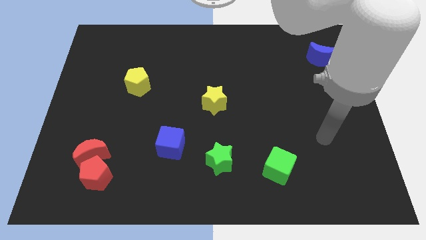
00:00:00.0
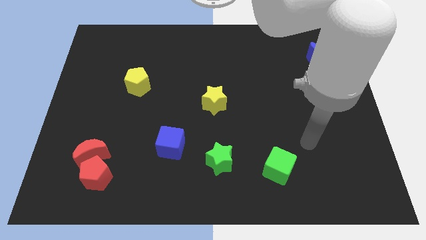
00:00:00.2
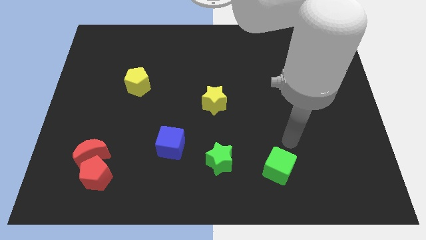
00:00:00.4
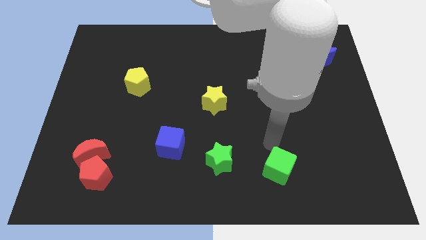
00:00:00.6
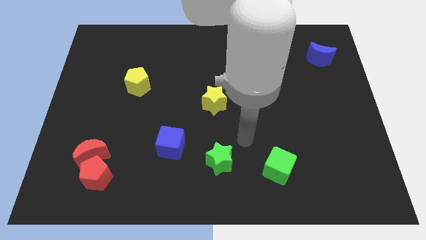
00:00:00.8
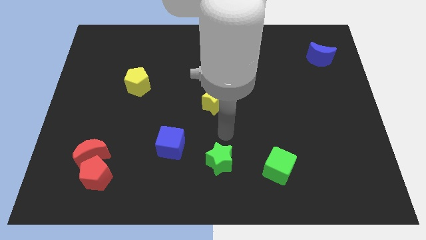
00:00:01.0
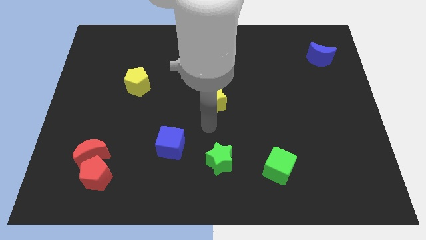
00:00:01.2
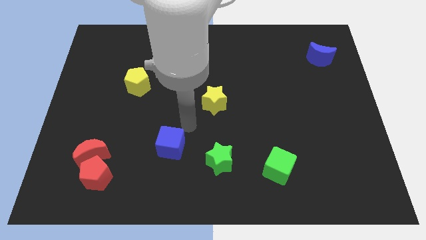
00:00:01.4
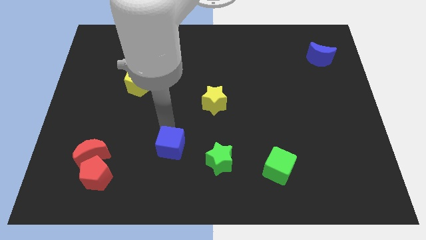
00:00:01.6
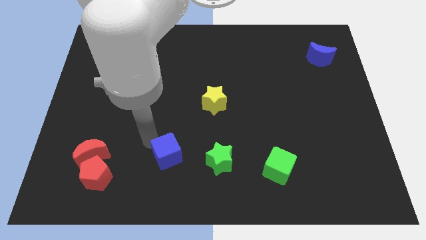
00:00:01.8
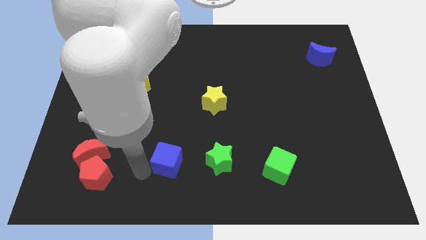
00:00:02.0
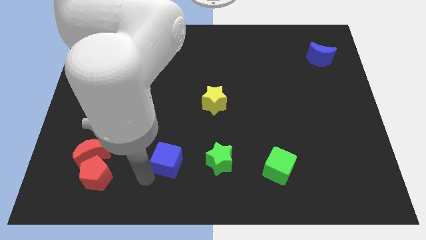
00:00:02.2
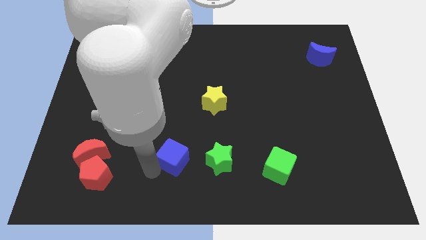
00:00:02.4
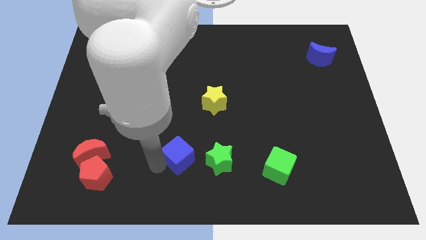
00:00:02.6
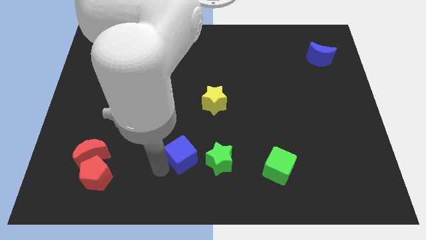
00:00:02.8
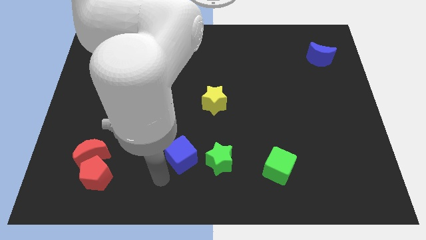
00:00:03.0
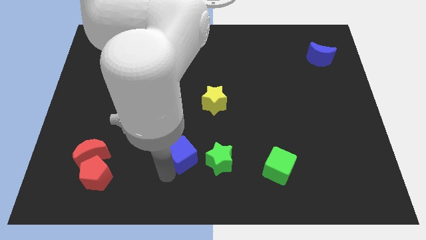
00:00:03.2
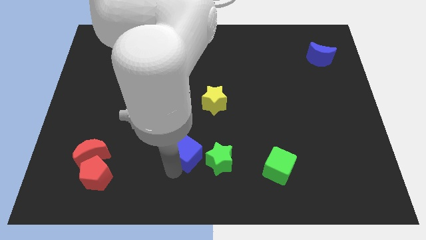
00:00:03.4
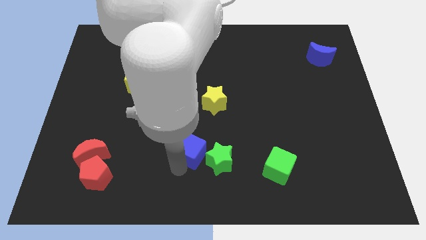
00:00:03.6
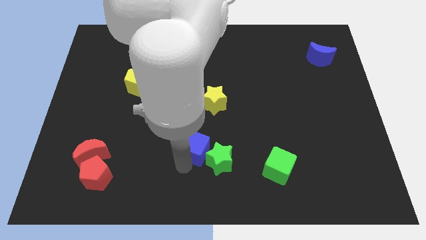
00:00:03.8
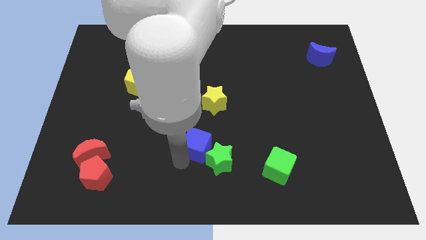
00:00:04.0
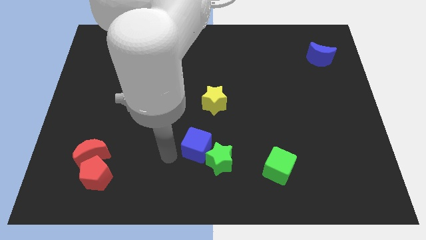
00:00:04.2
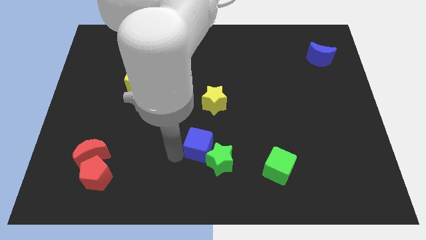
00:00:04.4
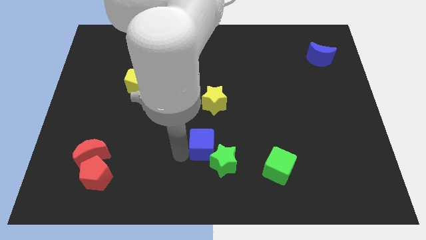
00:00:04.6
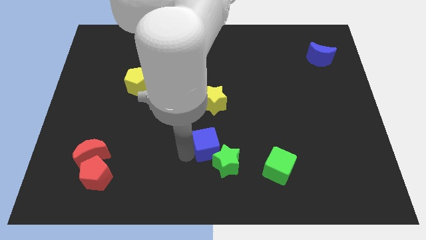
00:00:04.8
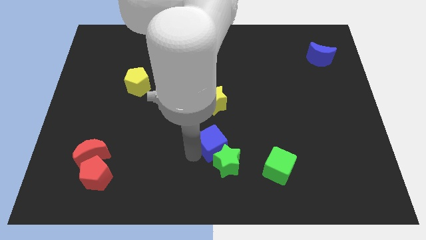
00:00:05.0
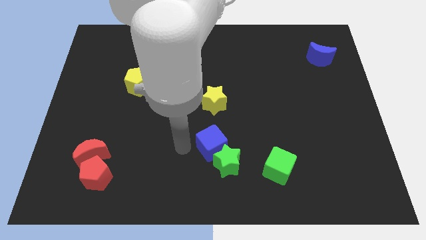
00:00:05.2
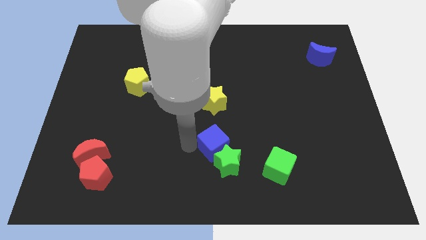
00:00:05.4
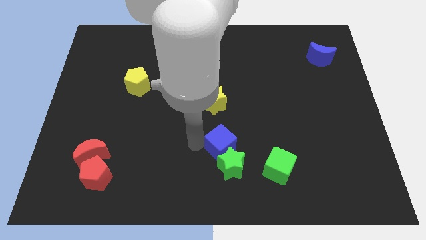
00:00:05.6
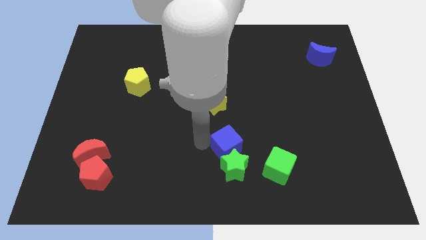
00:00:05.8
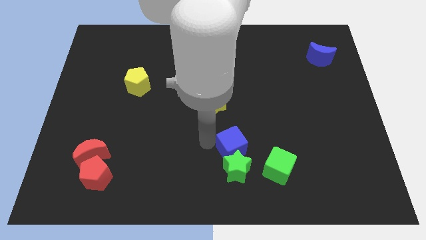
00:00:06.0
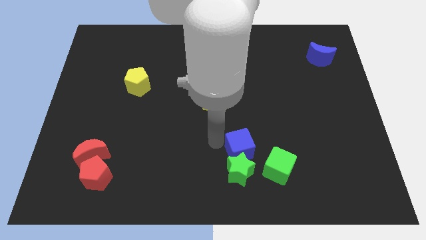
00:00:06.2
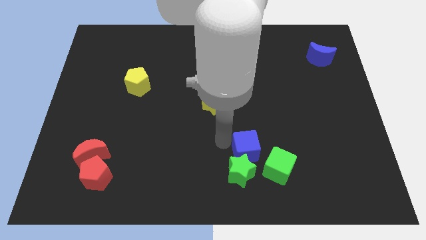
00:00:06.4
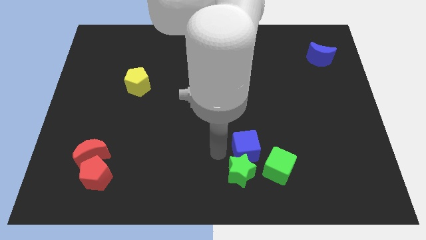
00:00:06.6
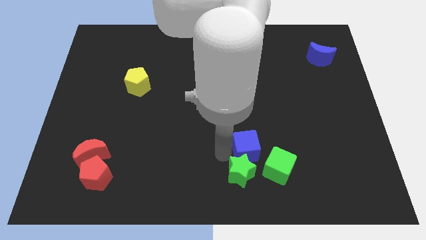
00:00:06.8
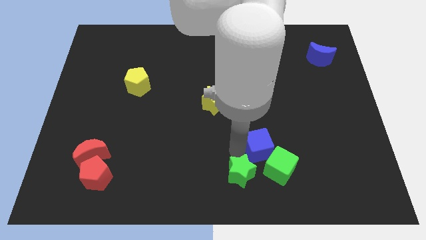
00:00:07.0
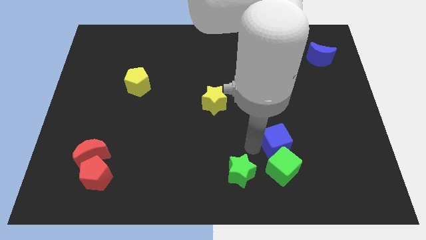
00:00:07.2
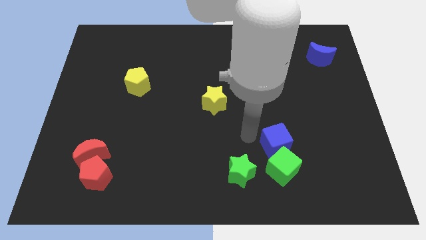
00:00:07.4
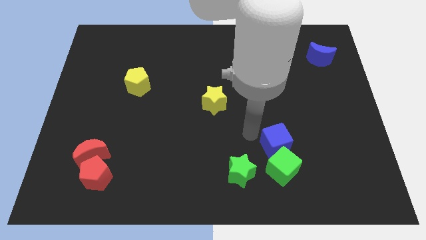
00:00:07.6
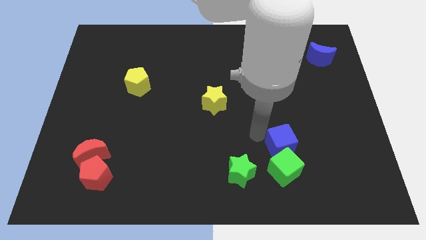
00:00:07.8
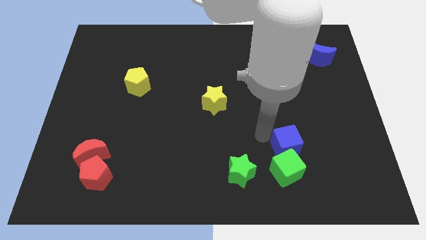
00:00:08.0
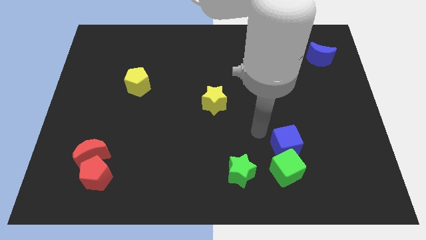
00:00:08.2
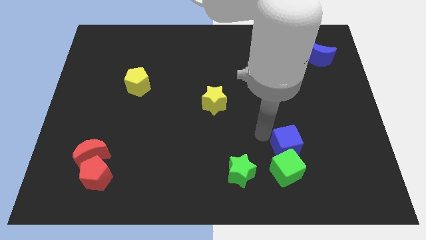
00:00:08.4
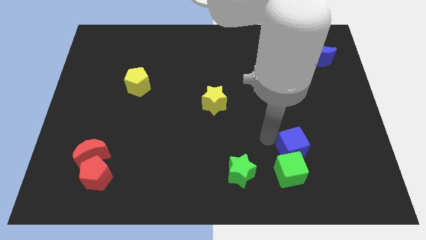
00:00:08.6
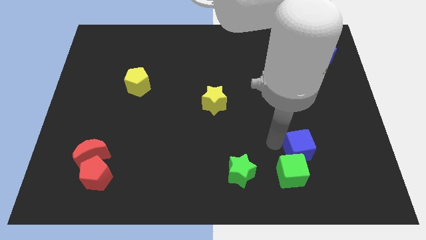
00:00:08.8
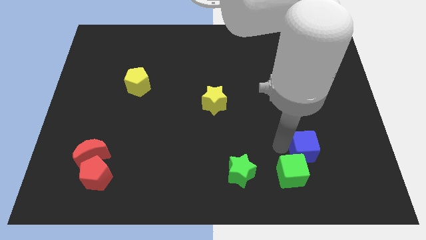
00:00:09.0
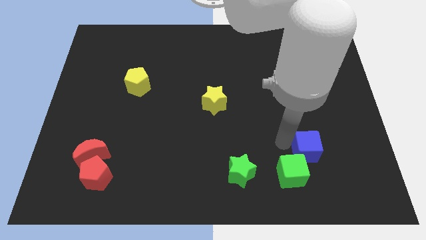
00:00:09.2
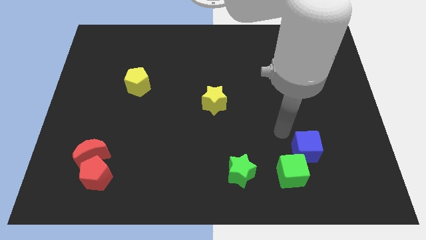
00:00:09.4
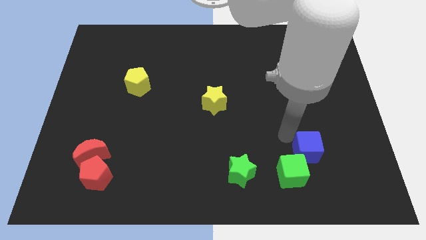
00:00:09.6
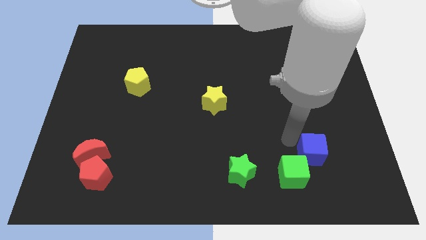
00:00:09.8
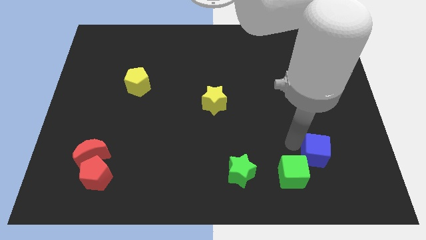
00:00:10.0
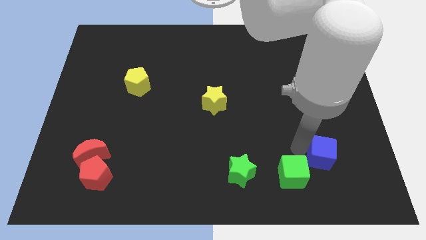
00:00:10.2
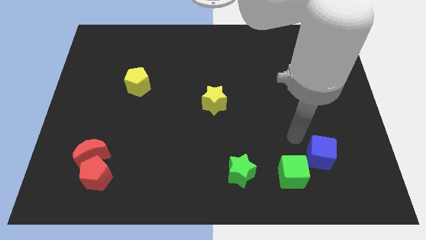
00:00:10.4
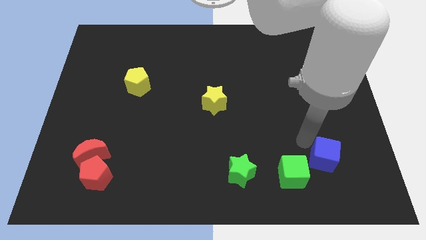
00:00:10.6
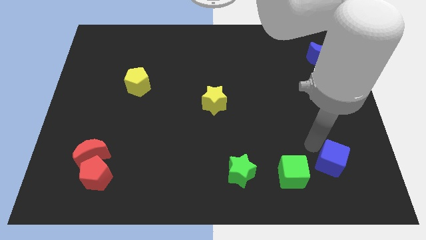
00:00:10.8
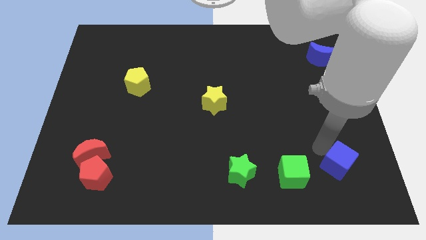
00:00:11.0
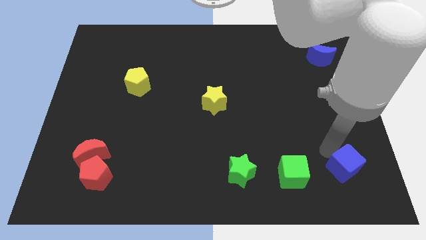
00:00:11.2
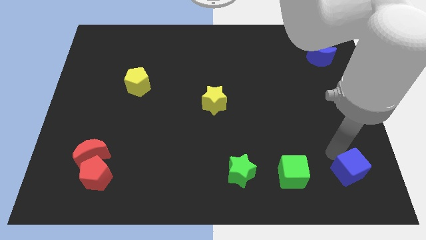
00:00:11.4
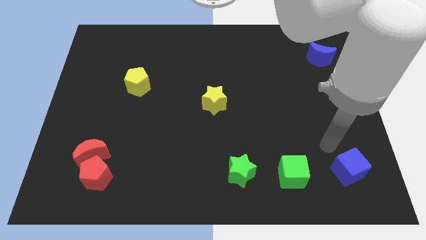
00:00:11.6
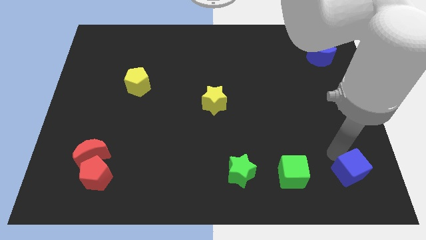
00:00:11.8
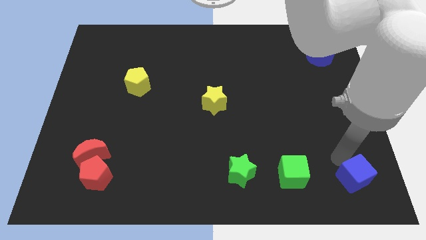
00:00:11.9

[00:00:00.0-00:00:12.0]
move the blue cube to the bottom right corner

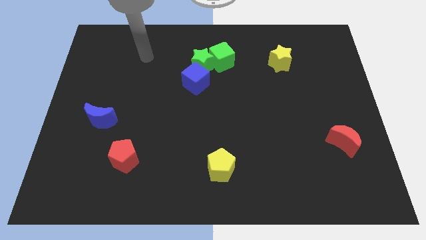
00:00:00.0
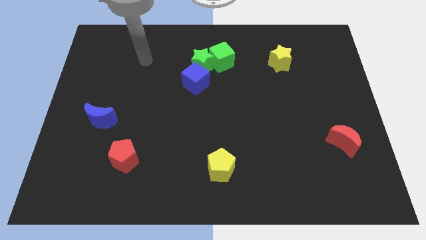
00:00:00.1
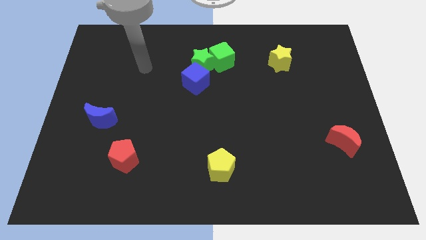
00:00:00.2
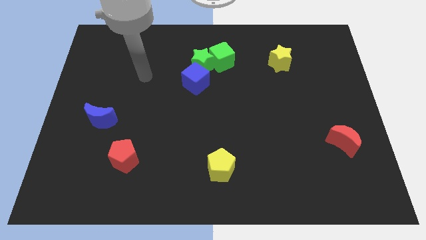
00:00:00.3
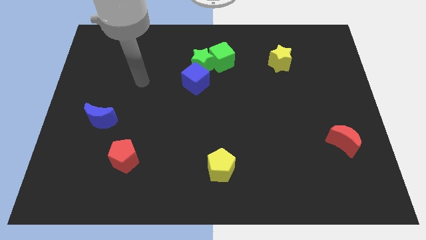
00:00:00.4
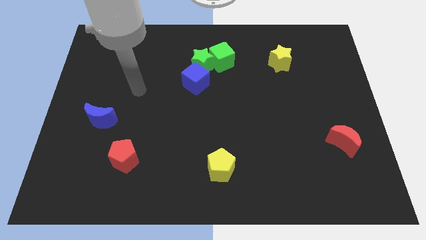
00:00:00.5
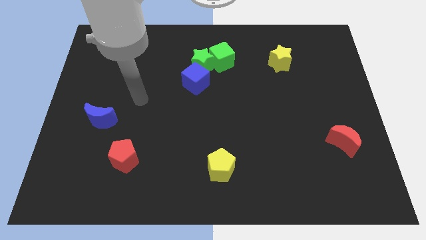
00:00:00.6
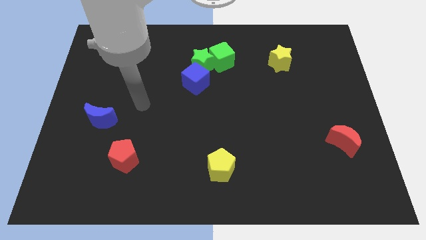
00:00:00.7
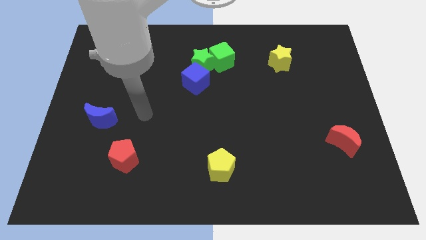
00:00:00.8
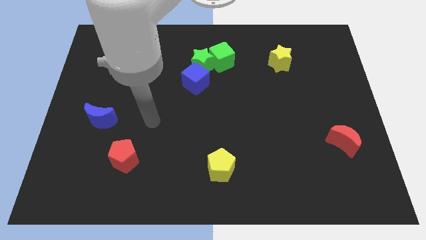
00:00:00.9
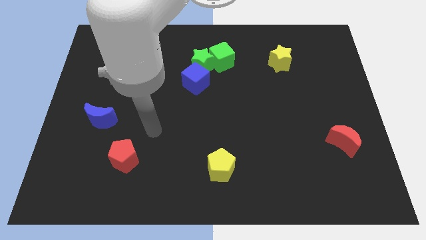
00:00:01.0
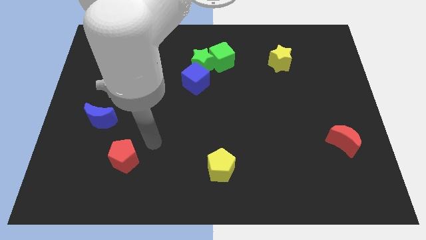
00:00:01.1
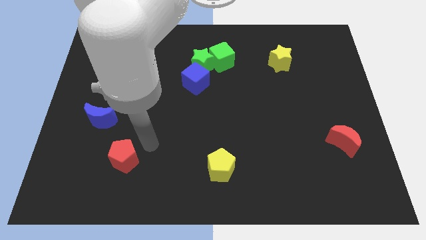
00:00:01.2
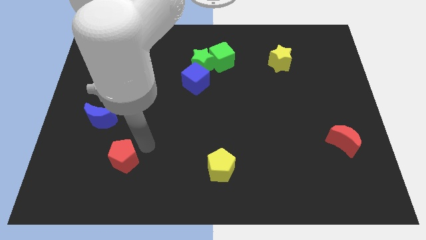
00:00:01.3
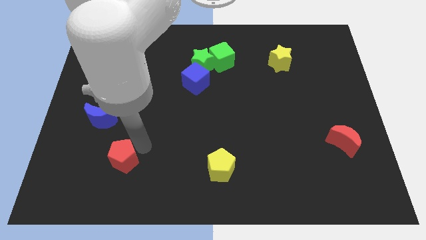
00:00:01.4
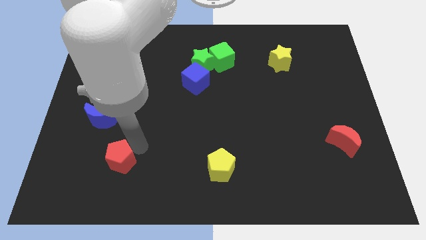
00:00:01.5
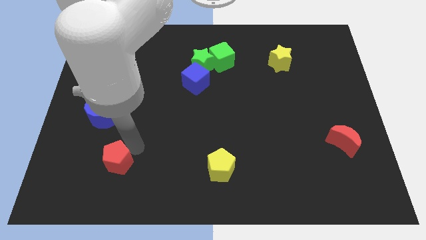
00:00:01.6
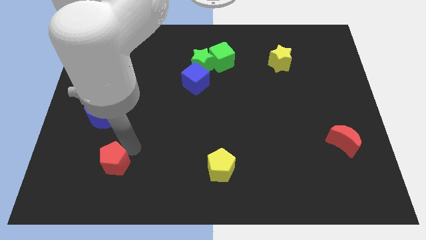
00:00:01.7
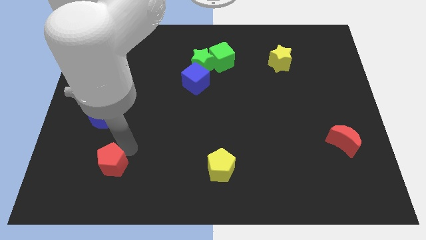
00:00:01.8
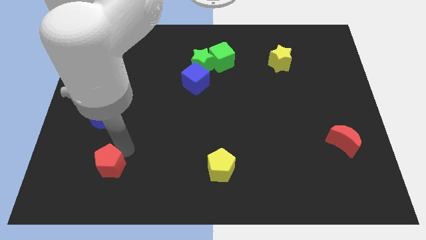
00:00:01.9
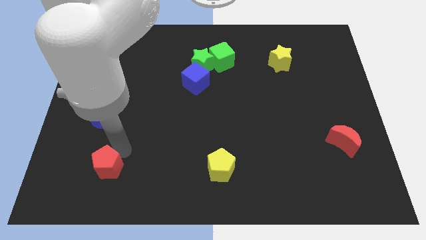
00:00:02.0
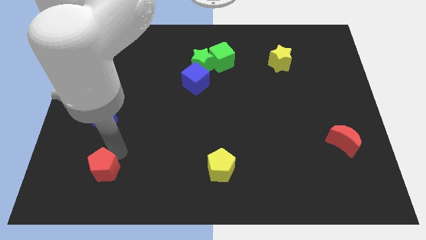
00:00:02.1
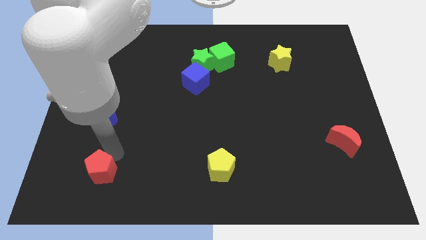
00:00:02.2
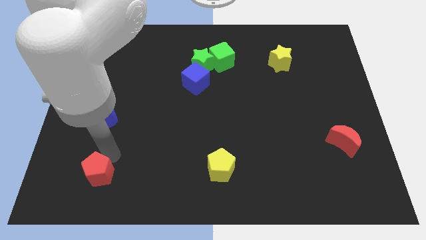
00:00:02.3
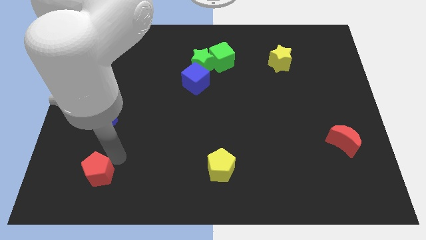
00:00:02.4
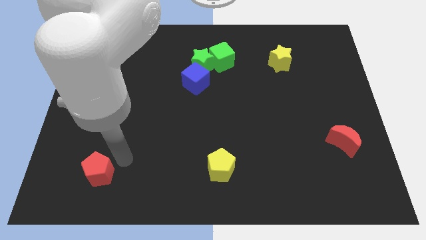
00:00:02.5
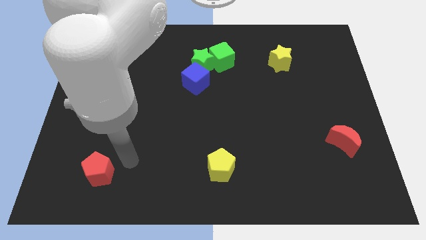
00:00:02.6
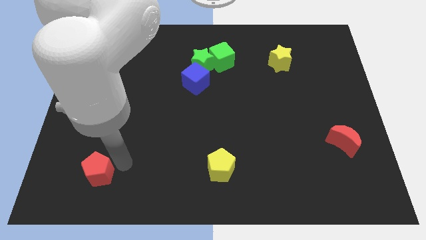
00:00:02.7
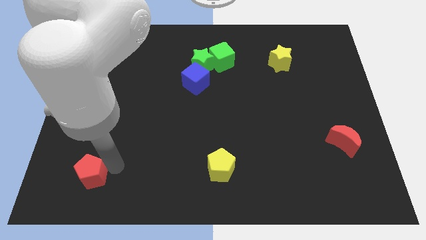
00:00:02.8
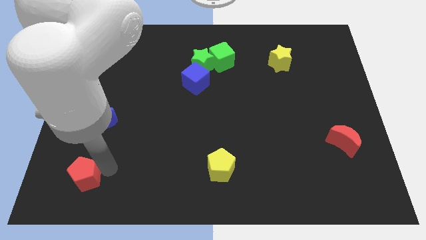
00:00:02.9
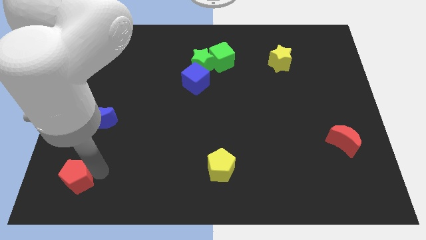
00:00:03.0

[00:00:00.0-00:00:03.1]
move the red pentagon to the lower left corner
